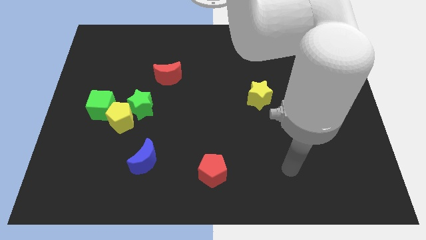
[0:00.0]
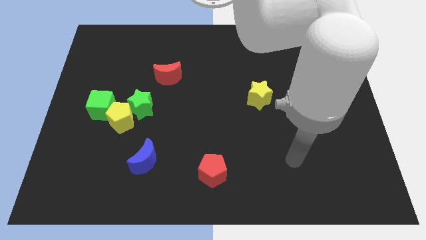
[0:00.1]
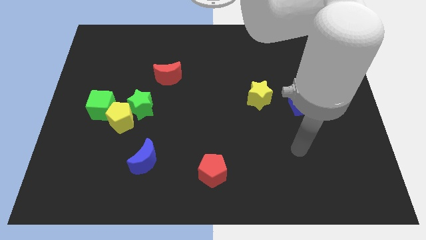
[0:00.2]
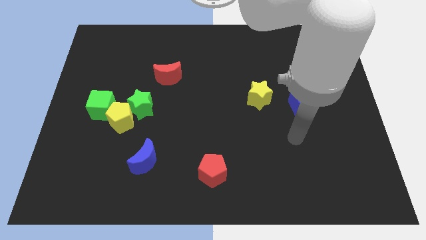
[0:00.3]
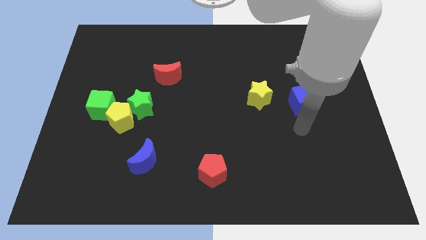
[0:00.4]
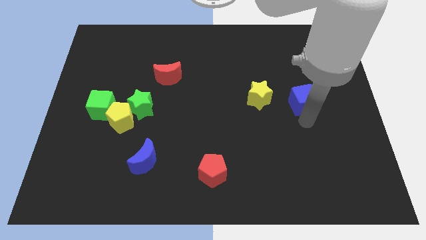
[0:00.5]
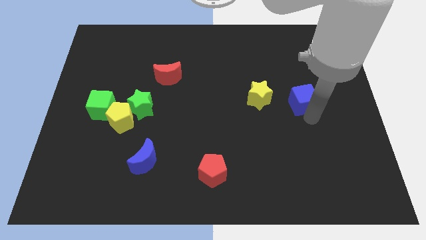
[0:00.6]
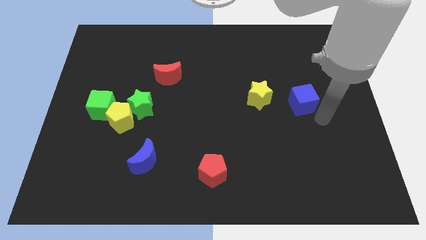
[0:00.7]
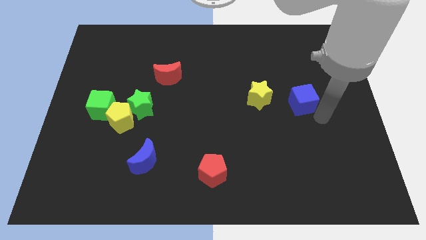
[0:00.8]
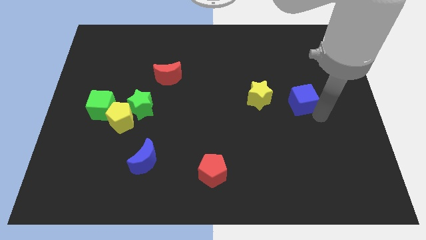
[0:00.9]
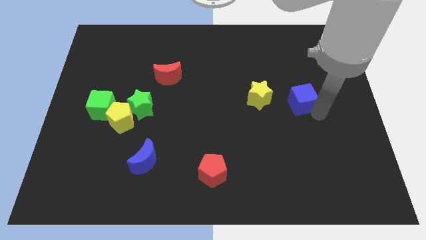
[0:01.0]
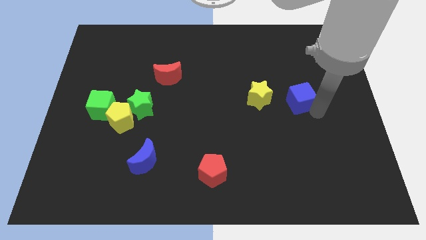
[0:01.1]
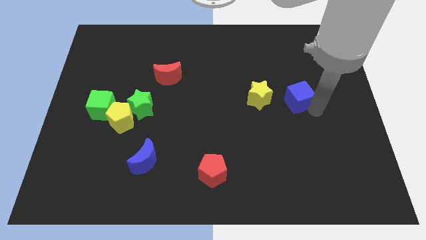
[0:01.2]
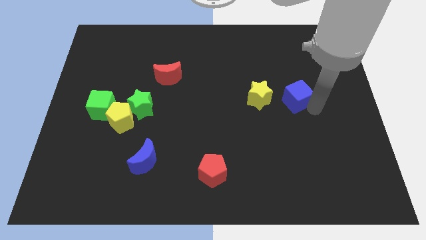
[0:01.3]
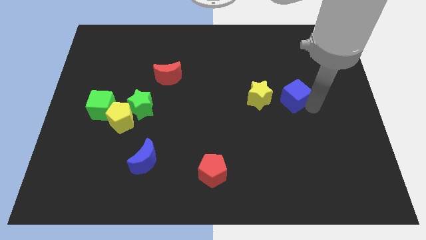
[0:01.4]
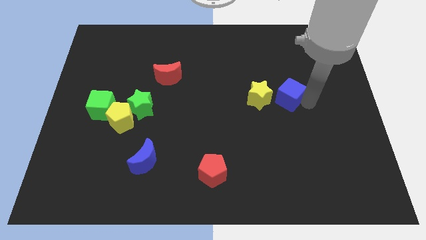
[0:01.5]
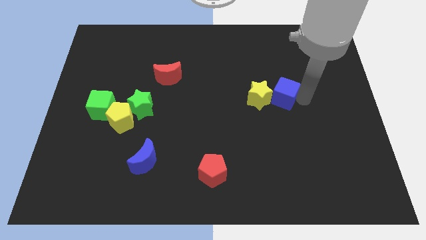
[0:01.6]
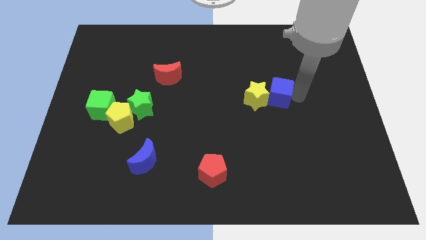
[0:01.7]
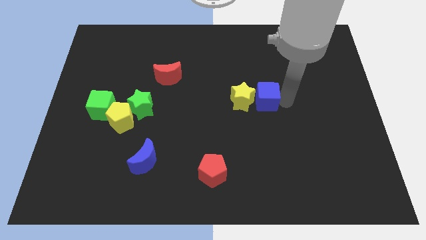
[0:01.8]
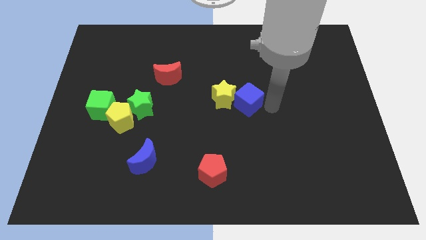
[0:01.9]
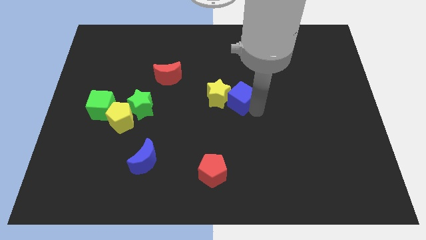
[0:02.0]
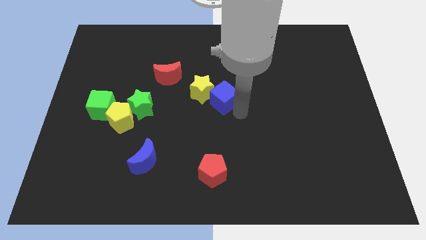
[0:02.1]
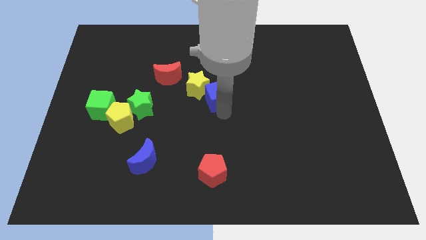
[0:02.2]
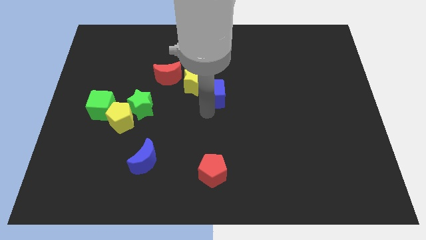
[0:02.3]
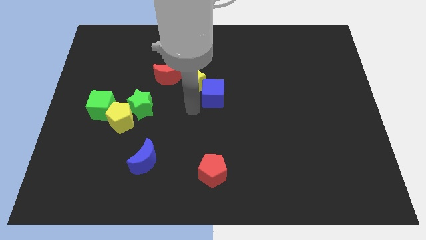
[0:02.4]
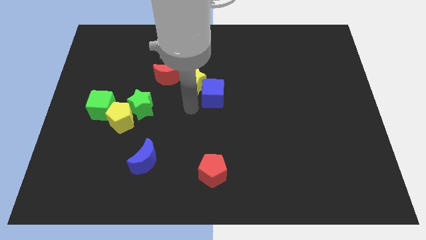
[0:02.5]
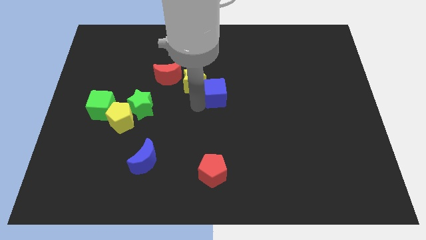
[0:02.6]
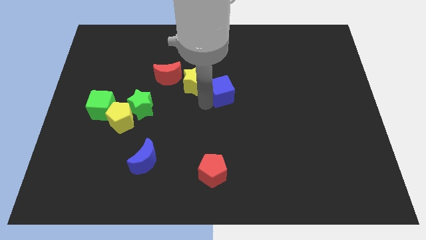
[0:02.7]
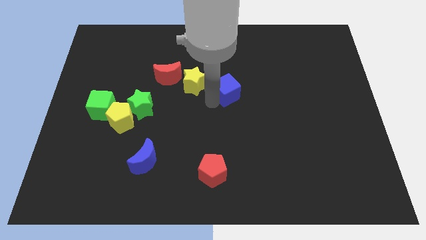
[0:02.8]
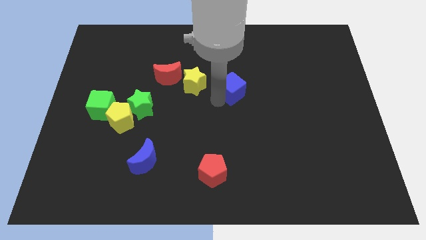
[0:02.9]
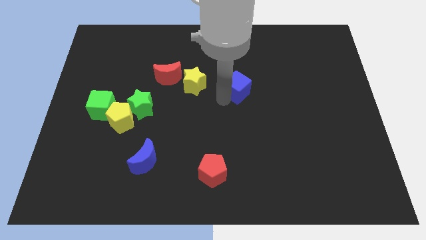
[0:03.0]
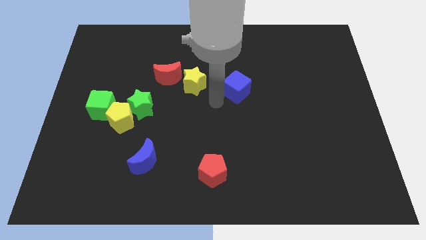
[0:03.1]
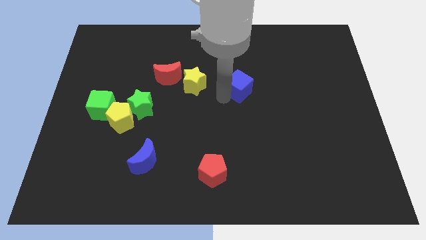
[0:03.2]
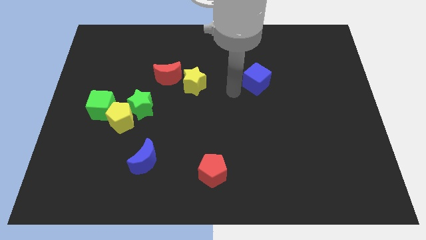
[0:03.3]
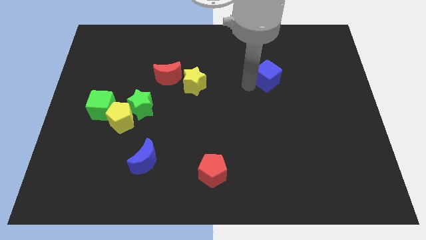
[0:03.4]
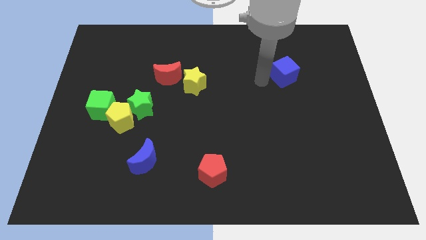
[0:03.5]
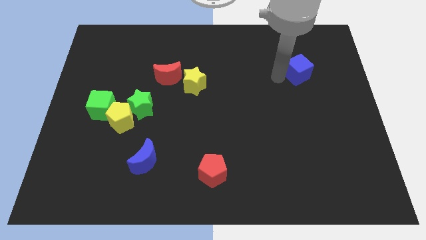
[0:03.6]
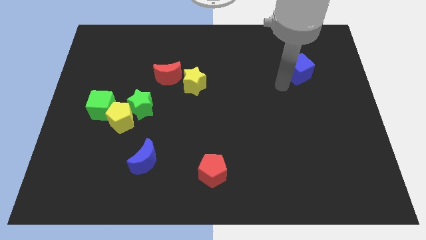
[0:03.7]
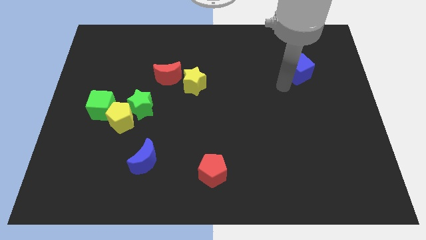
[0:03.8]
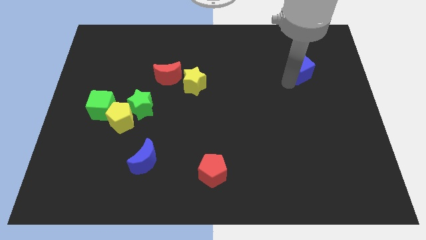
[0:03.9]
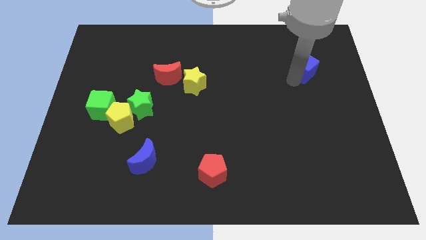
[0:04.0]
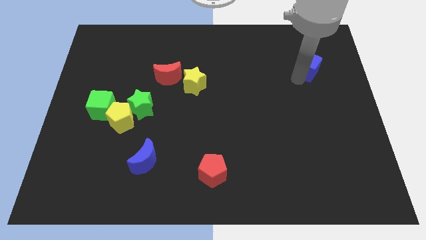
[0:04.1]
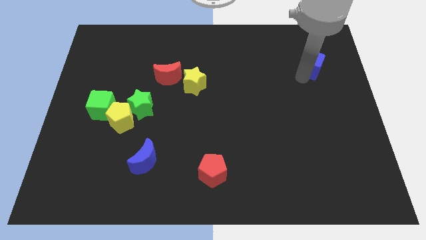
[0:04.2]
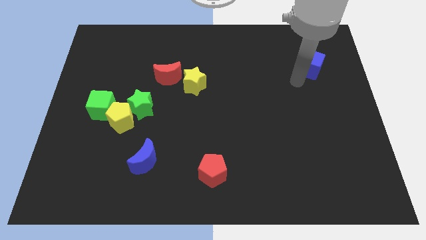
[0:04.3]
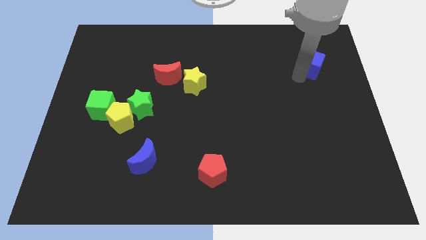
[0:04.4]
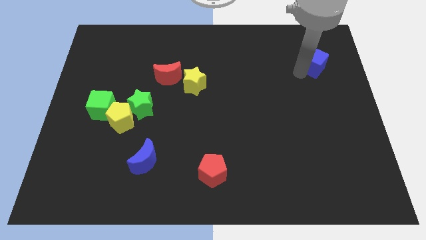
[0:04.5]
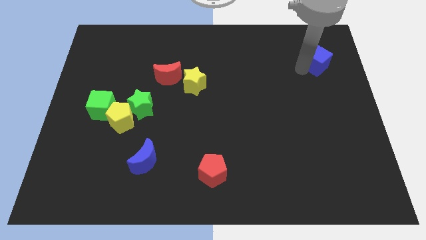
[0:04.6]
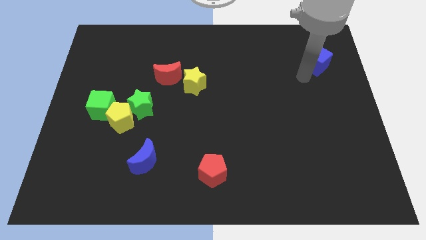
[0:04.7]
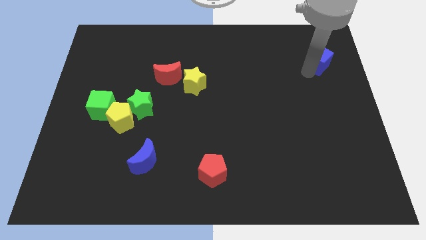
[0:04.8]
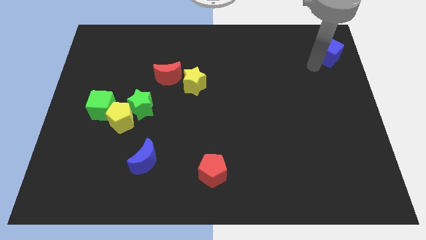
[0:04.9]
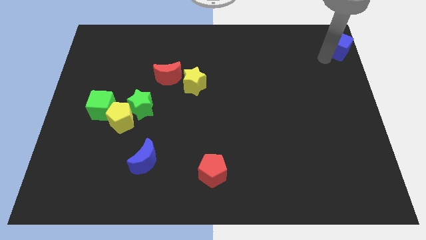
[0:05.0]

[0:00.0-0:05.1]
slide the blue cube to the top right corner

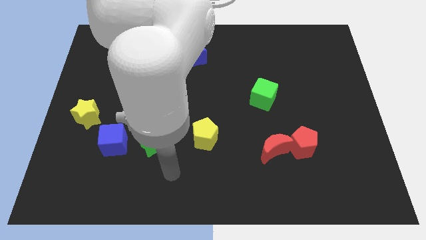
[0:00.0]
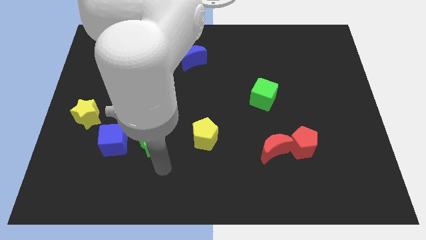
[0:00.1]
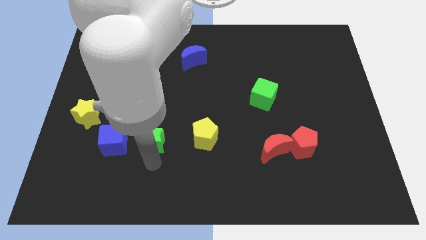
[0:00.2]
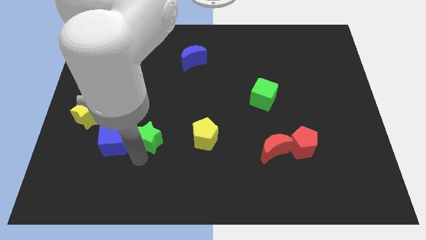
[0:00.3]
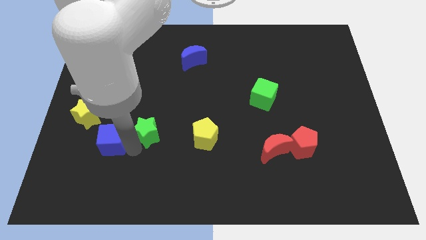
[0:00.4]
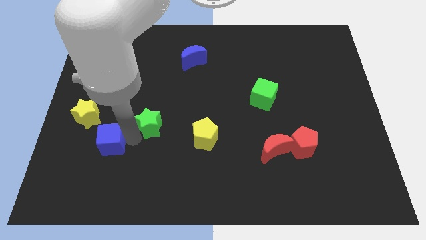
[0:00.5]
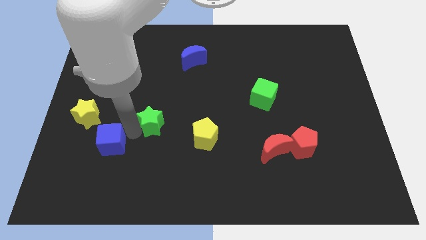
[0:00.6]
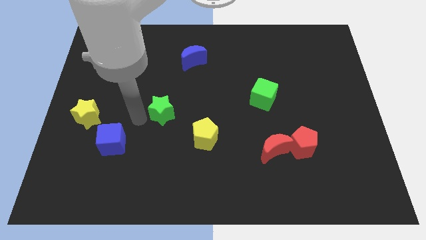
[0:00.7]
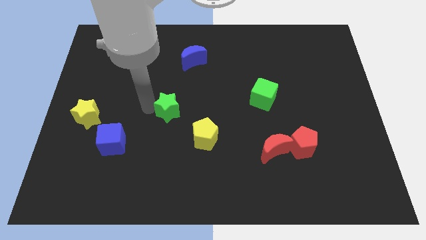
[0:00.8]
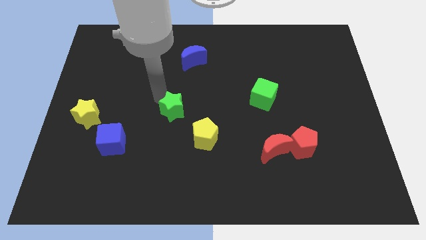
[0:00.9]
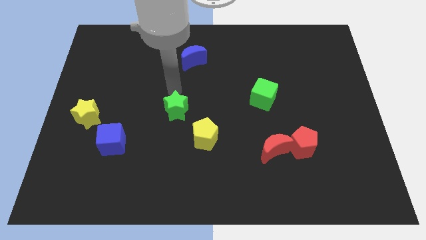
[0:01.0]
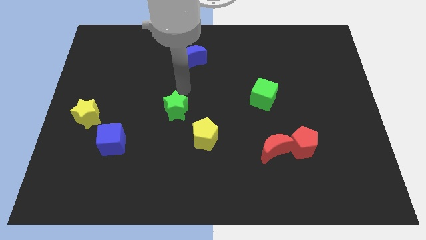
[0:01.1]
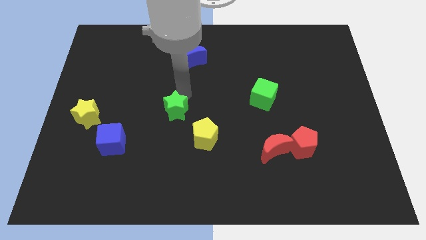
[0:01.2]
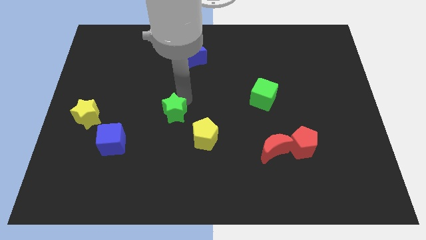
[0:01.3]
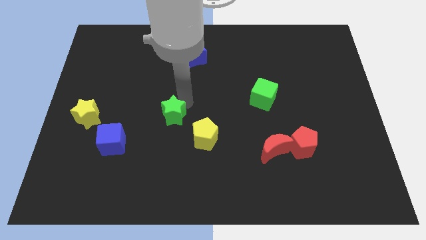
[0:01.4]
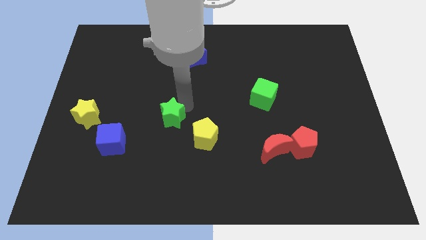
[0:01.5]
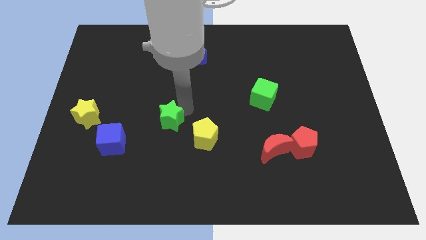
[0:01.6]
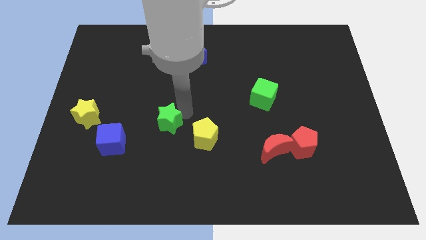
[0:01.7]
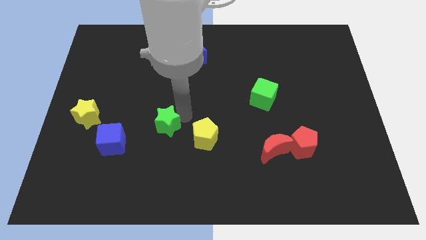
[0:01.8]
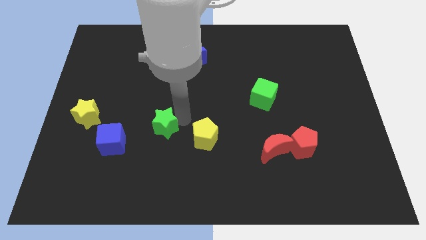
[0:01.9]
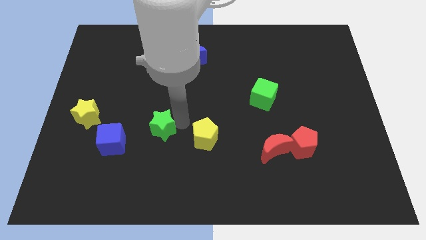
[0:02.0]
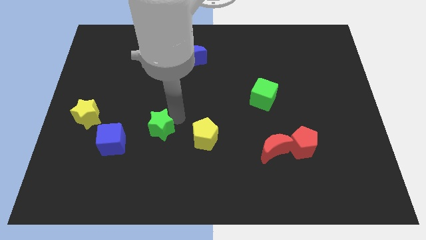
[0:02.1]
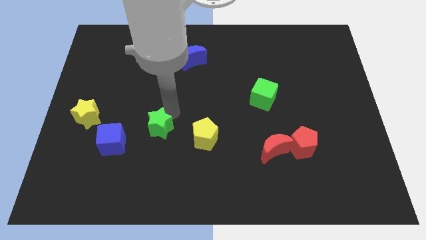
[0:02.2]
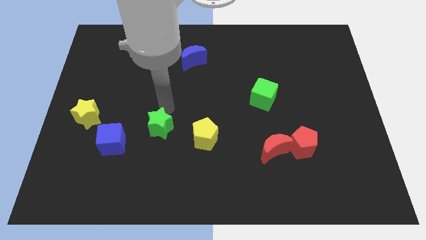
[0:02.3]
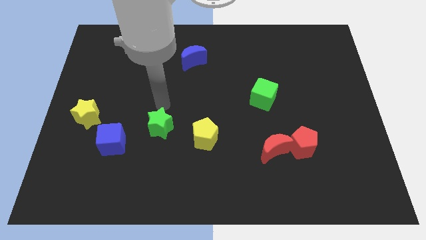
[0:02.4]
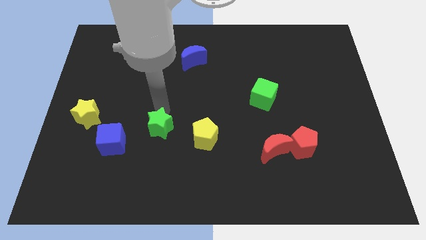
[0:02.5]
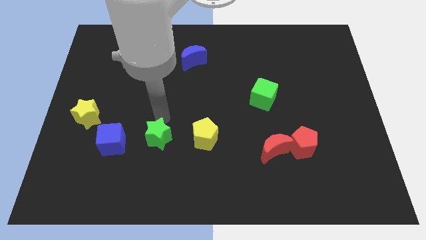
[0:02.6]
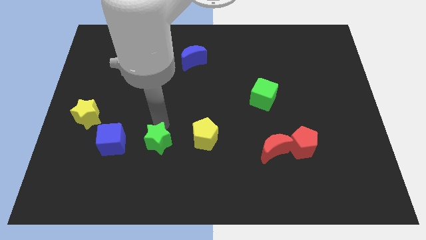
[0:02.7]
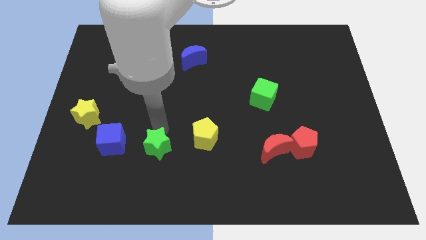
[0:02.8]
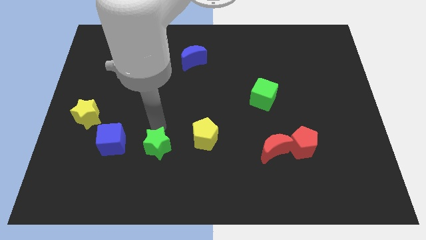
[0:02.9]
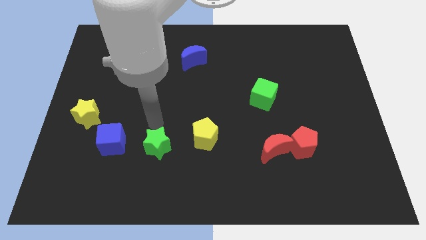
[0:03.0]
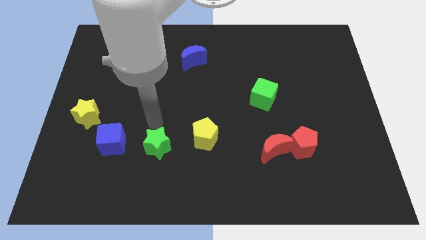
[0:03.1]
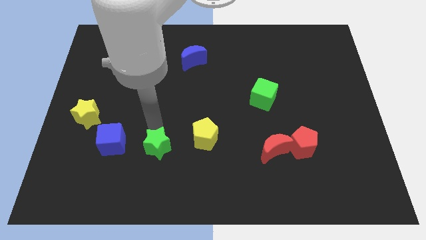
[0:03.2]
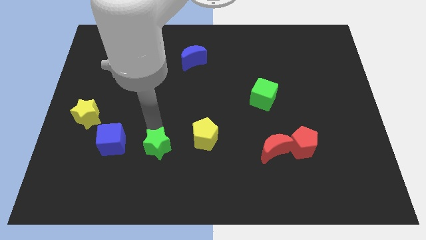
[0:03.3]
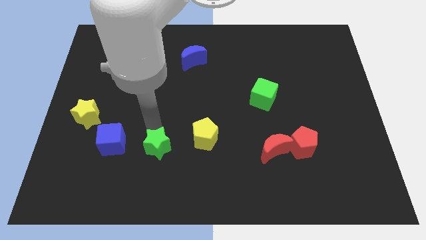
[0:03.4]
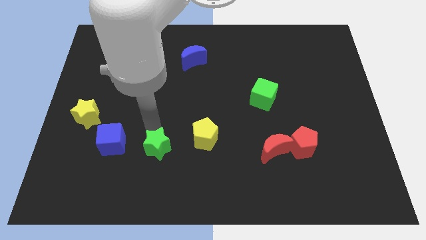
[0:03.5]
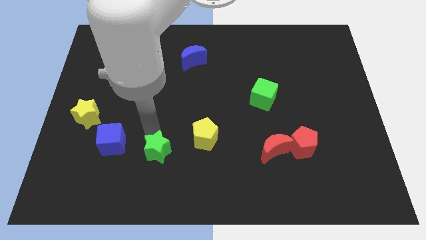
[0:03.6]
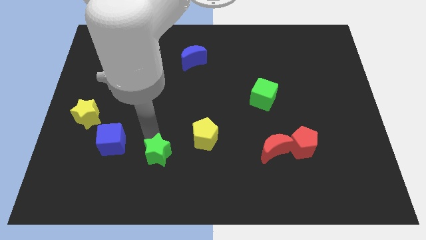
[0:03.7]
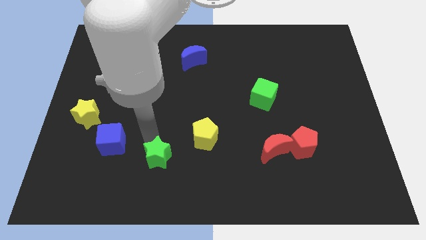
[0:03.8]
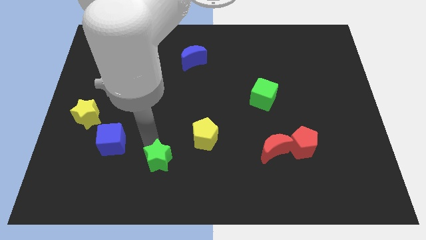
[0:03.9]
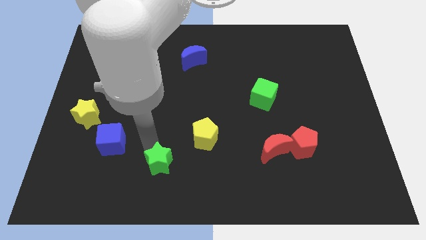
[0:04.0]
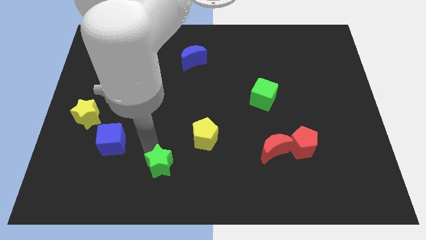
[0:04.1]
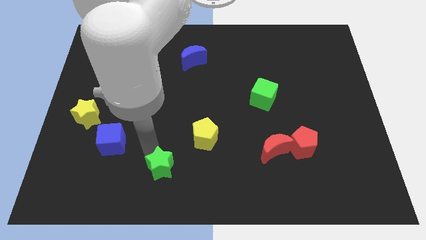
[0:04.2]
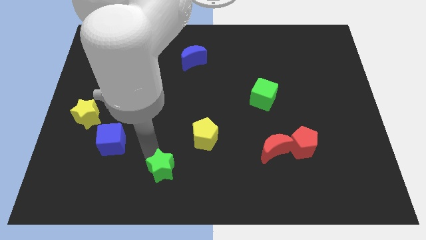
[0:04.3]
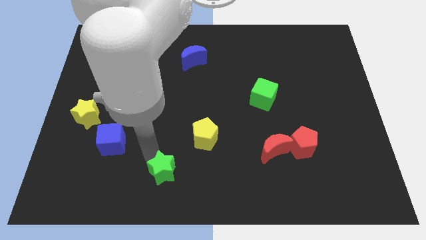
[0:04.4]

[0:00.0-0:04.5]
push the green star to the bottom side
